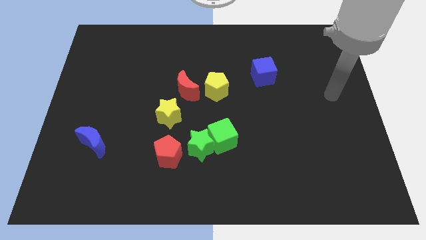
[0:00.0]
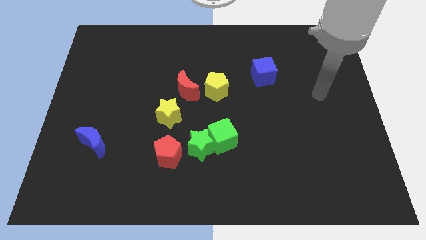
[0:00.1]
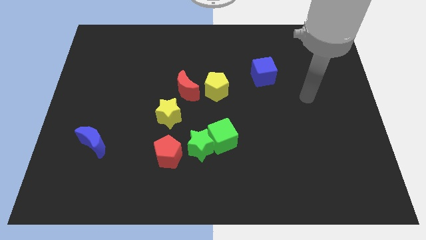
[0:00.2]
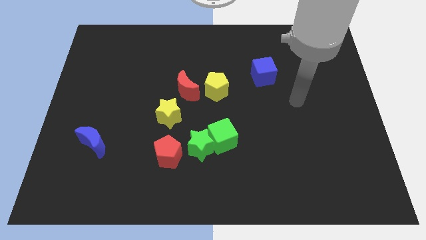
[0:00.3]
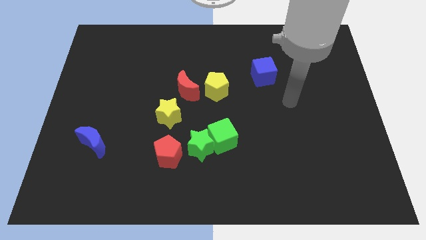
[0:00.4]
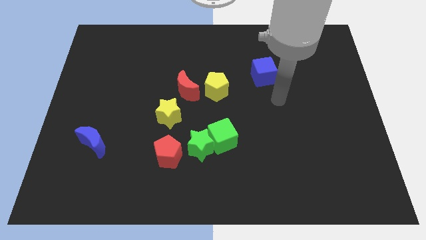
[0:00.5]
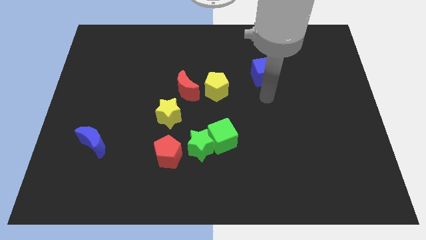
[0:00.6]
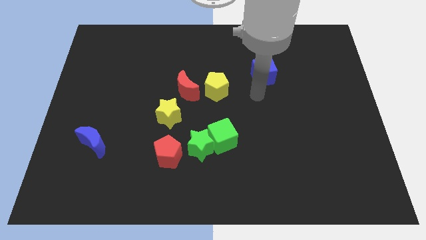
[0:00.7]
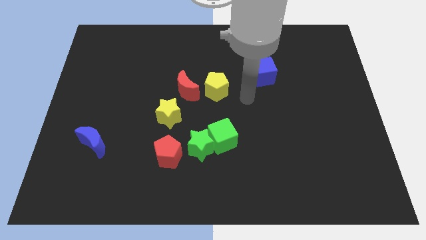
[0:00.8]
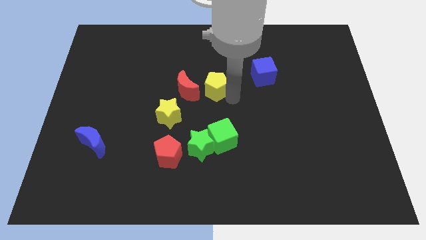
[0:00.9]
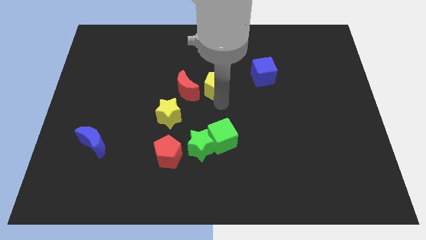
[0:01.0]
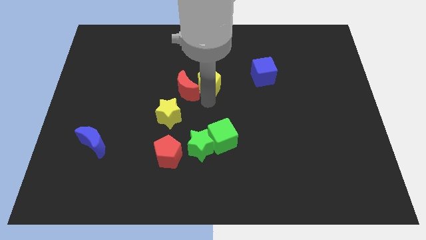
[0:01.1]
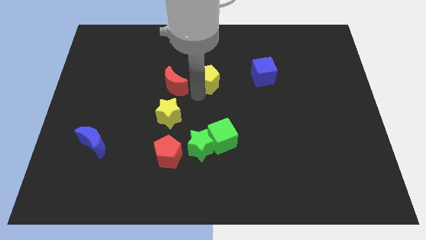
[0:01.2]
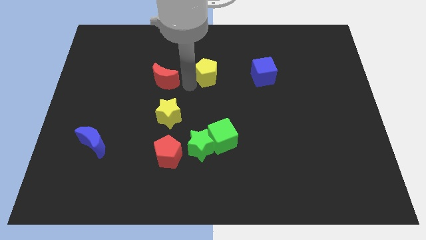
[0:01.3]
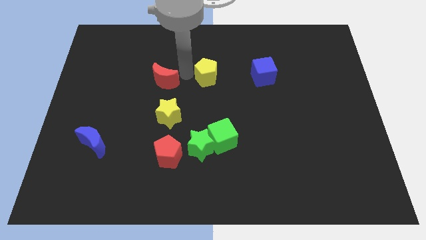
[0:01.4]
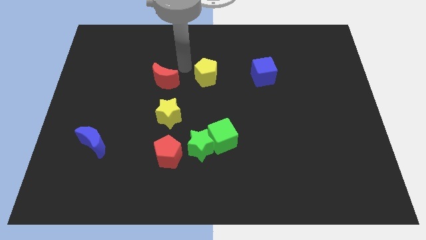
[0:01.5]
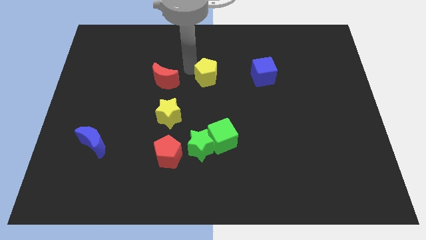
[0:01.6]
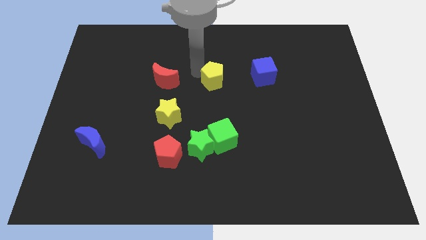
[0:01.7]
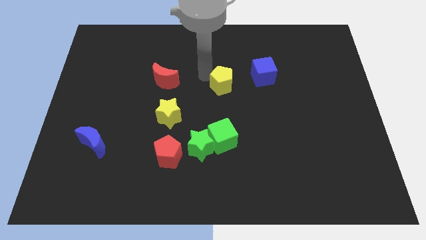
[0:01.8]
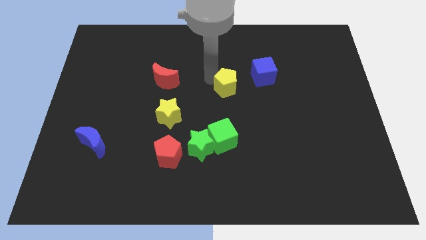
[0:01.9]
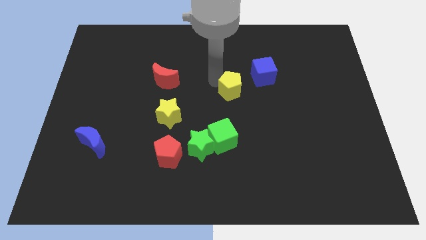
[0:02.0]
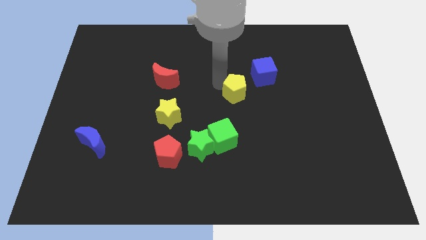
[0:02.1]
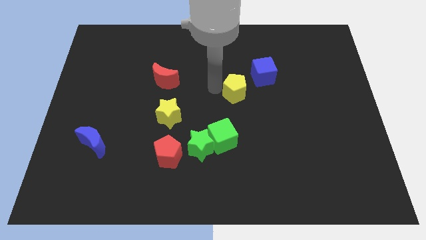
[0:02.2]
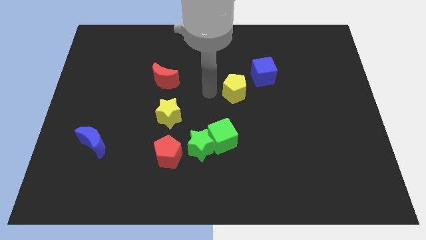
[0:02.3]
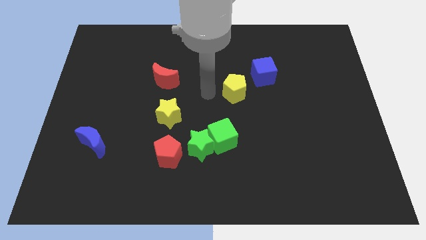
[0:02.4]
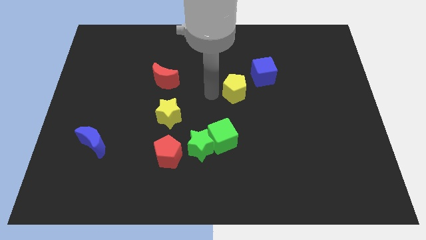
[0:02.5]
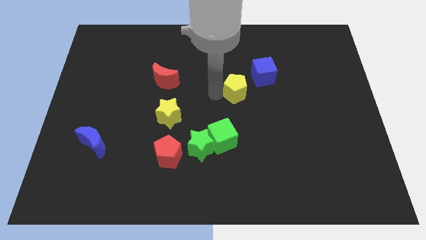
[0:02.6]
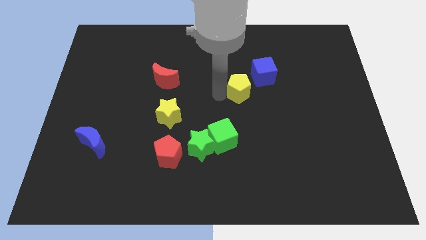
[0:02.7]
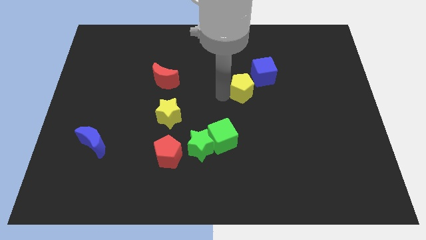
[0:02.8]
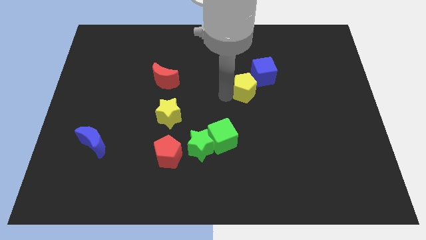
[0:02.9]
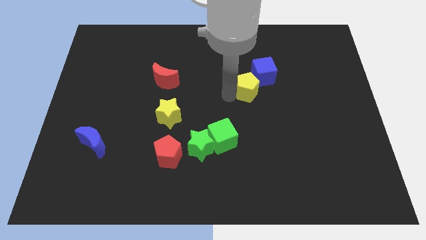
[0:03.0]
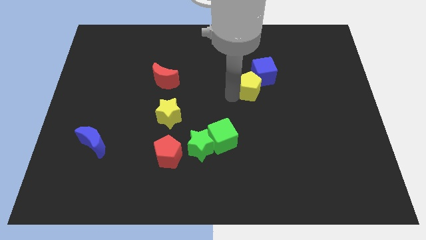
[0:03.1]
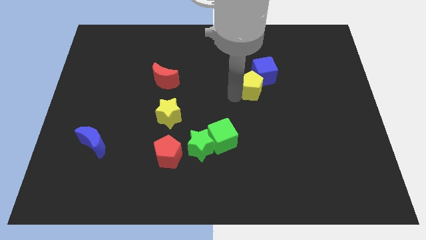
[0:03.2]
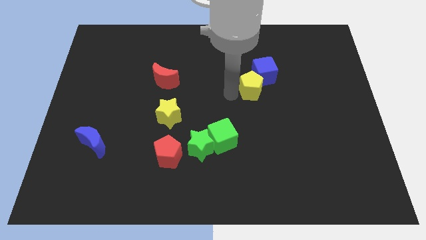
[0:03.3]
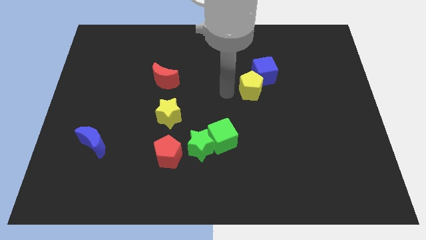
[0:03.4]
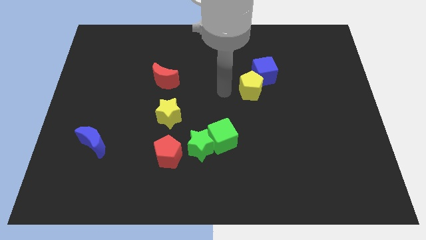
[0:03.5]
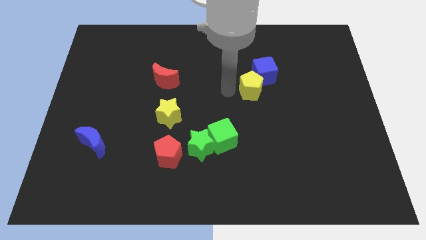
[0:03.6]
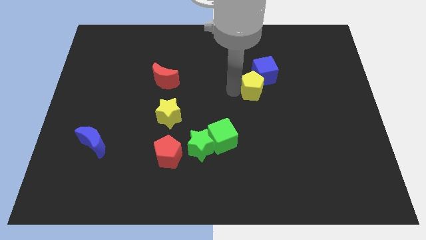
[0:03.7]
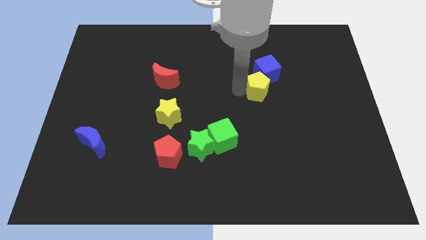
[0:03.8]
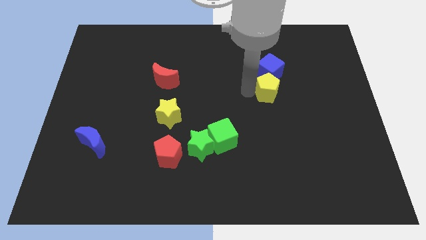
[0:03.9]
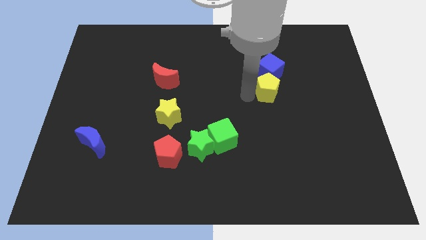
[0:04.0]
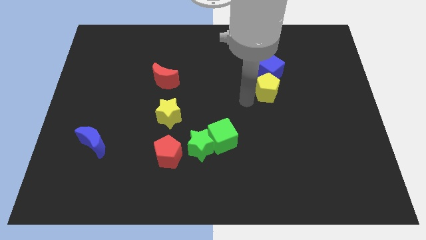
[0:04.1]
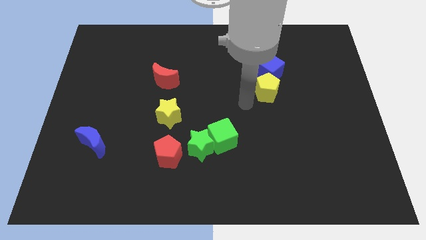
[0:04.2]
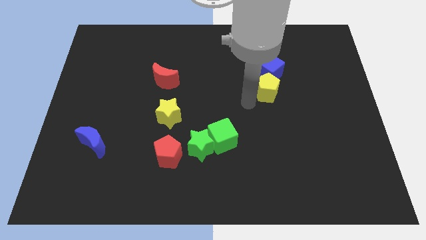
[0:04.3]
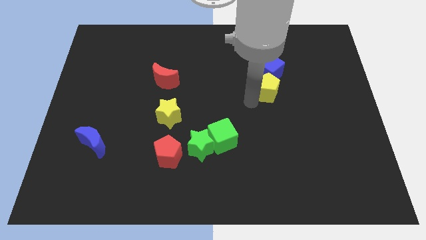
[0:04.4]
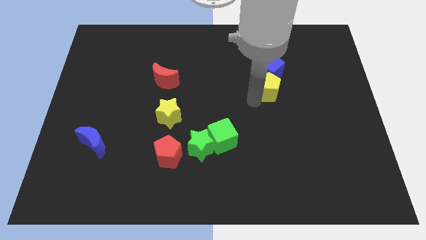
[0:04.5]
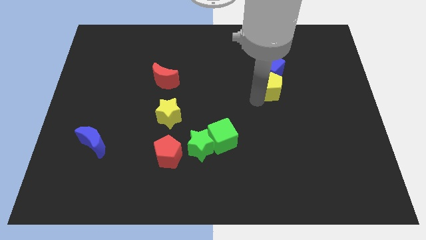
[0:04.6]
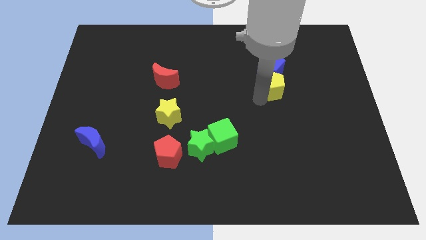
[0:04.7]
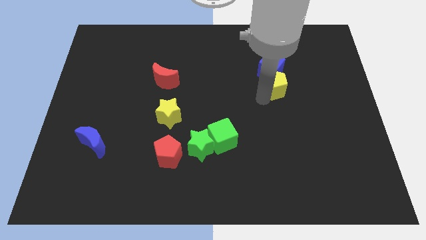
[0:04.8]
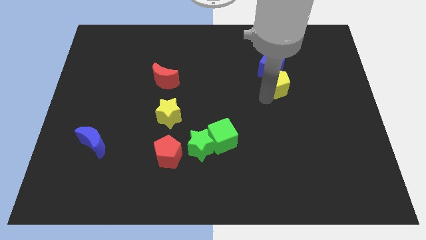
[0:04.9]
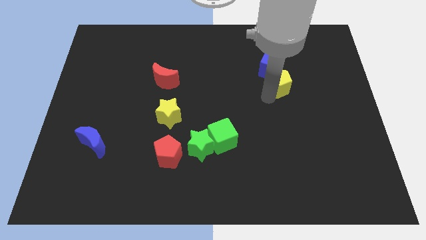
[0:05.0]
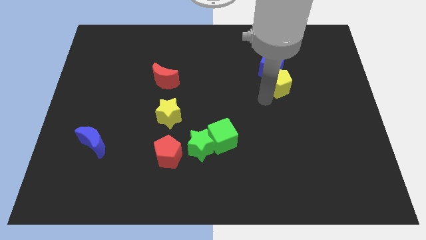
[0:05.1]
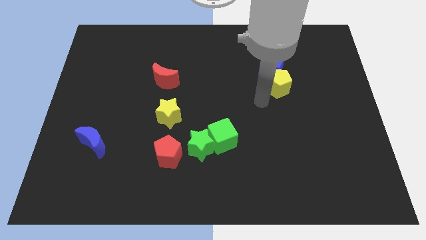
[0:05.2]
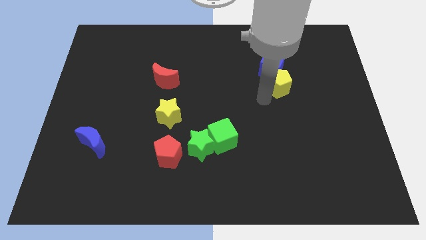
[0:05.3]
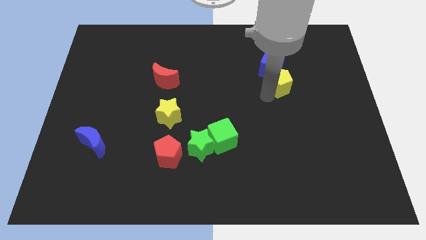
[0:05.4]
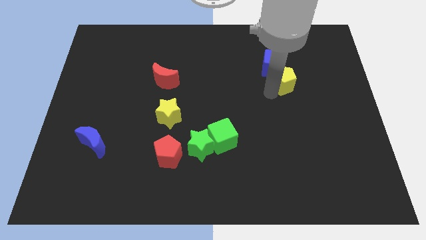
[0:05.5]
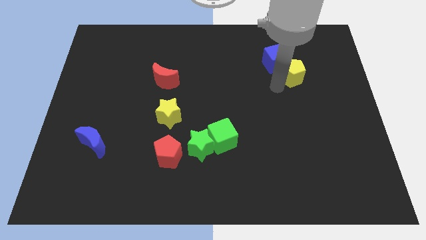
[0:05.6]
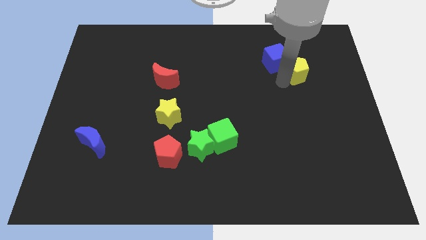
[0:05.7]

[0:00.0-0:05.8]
slide the yellow pentagon right of the blue cube

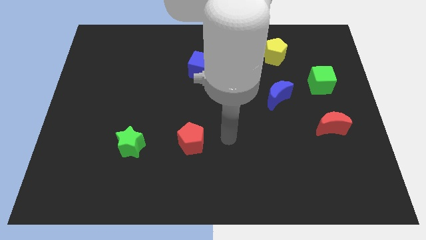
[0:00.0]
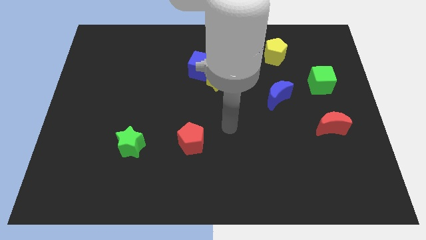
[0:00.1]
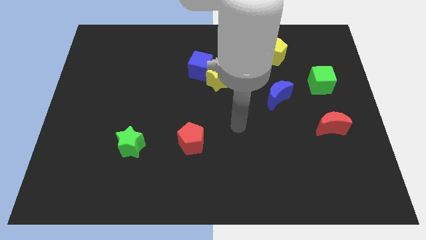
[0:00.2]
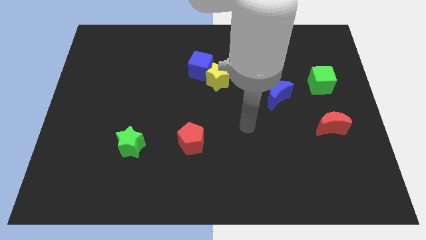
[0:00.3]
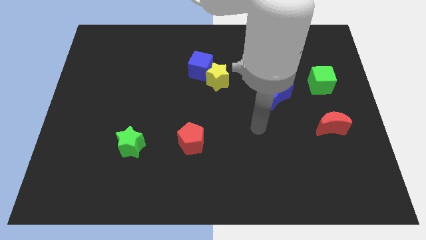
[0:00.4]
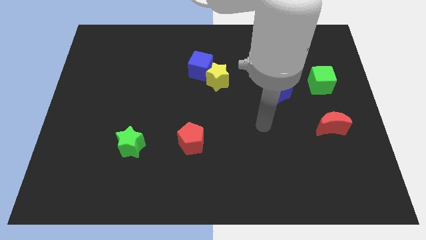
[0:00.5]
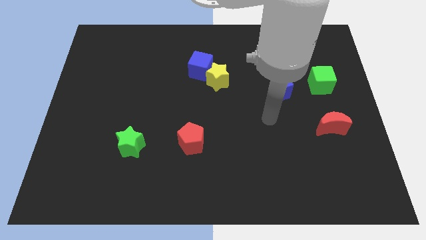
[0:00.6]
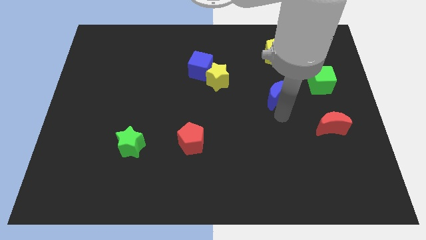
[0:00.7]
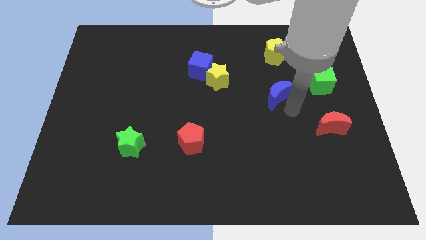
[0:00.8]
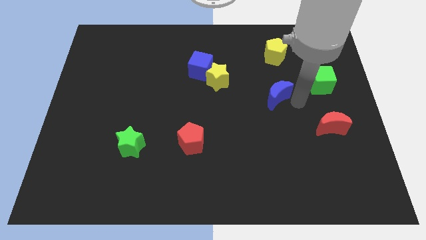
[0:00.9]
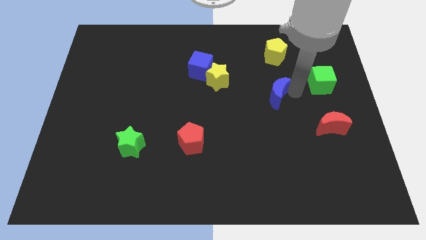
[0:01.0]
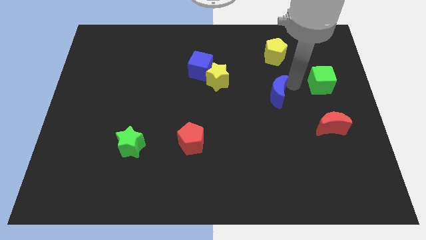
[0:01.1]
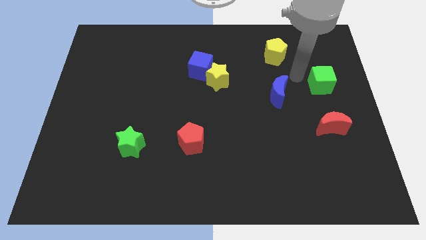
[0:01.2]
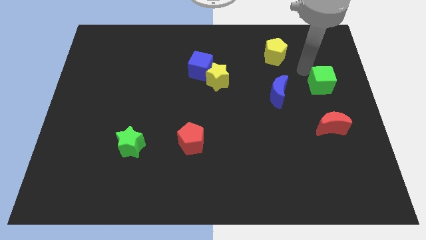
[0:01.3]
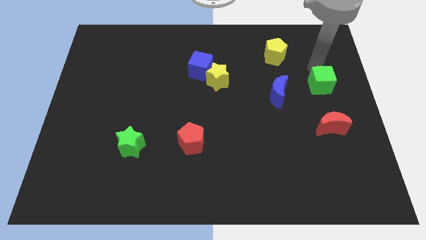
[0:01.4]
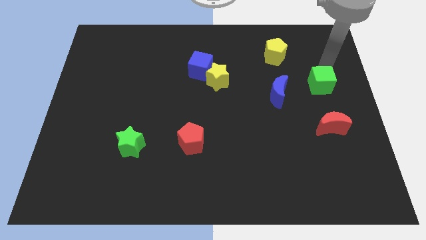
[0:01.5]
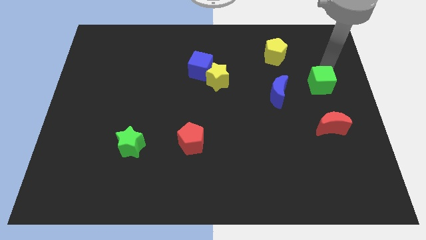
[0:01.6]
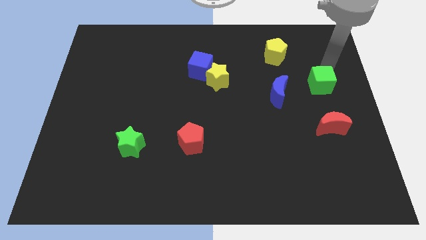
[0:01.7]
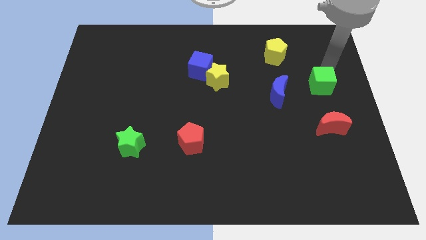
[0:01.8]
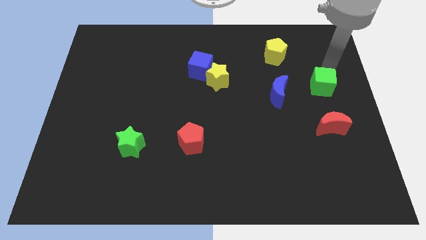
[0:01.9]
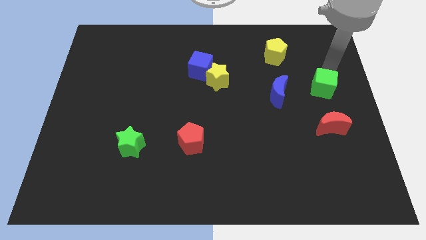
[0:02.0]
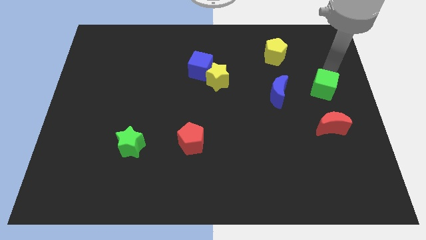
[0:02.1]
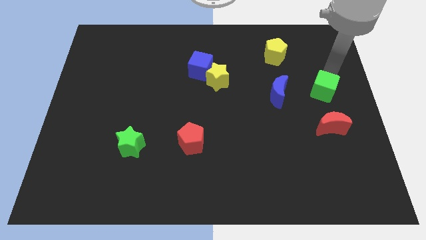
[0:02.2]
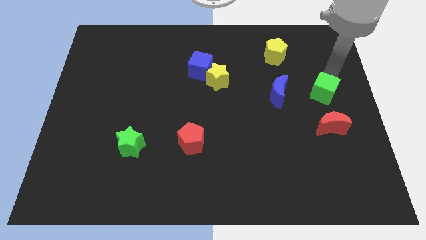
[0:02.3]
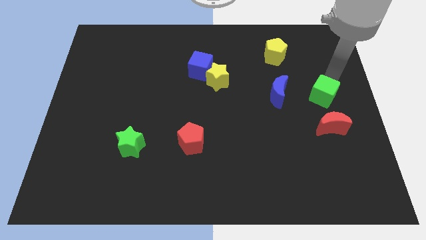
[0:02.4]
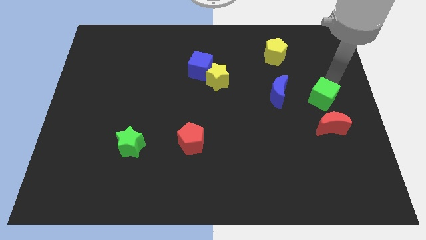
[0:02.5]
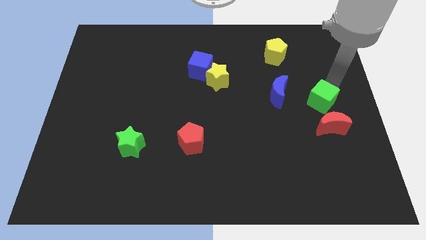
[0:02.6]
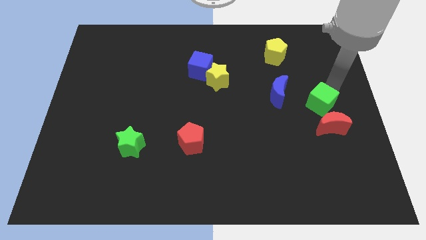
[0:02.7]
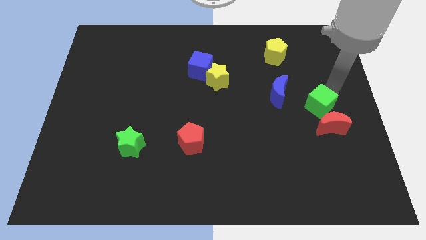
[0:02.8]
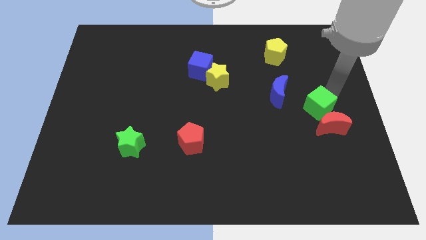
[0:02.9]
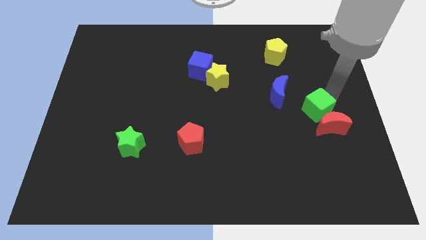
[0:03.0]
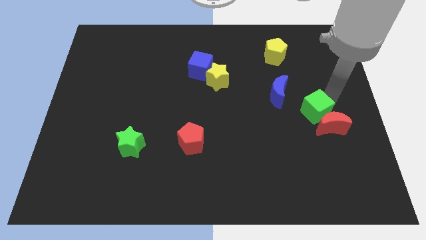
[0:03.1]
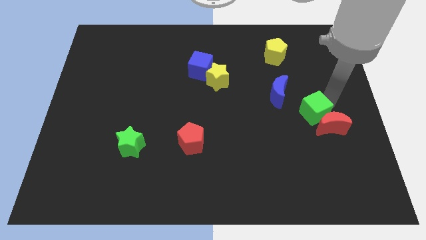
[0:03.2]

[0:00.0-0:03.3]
slide the green cube just left of the red moon
